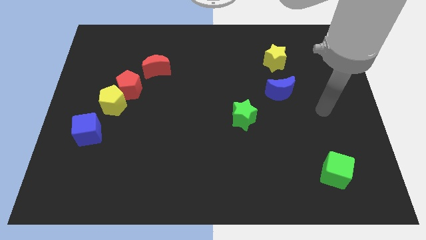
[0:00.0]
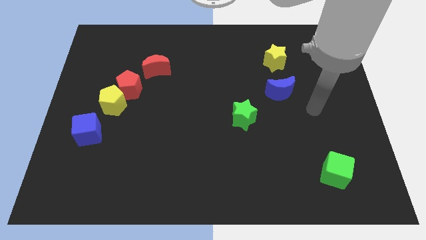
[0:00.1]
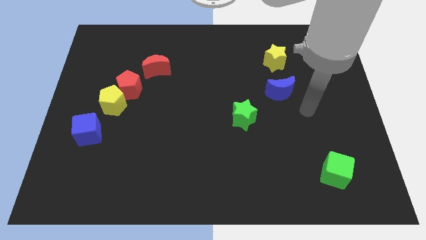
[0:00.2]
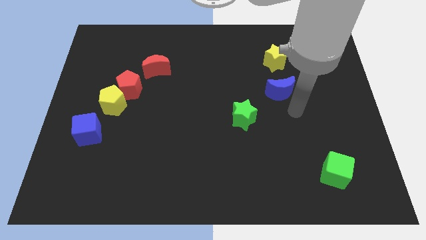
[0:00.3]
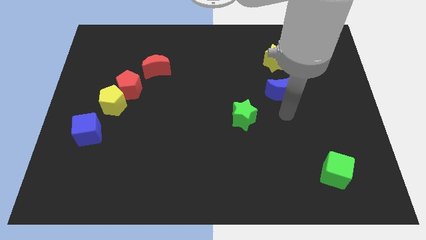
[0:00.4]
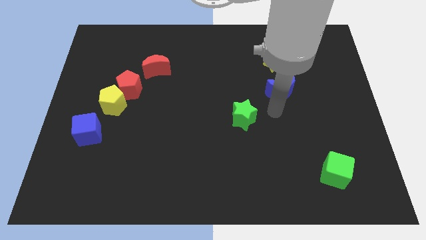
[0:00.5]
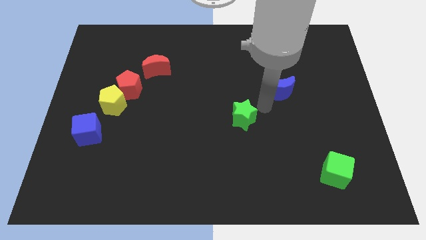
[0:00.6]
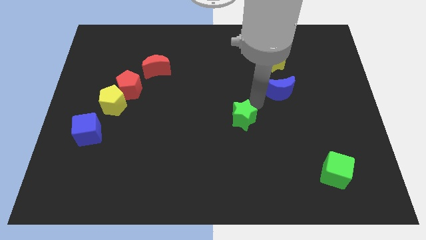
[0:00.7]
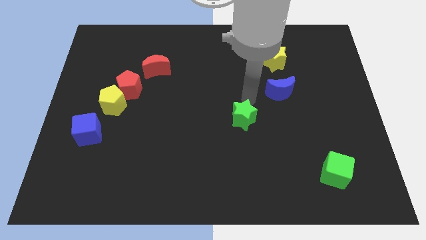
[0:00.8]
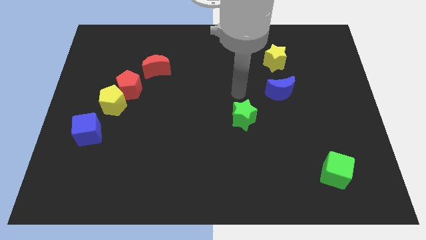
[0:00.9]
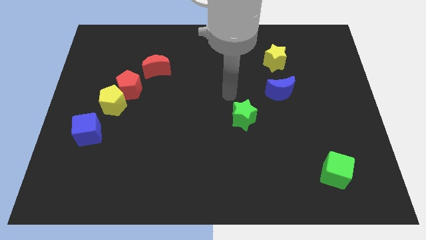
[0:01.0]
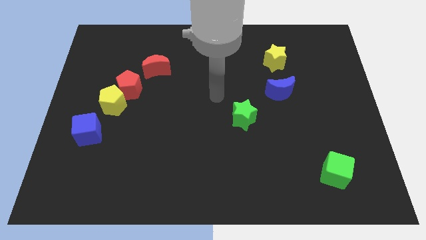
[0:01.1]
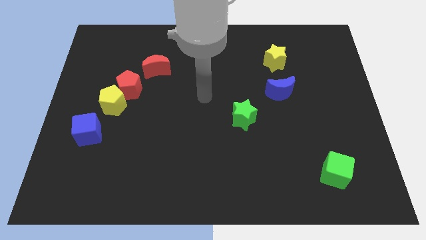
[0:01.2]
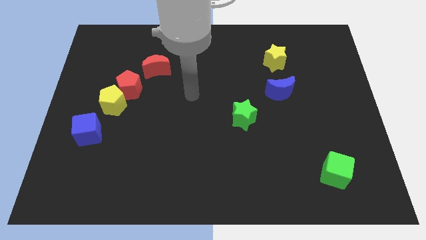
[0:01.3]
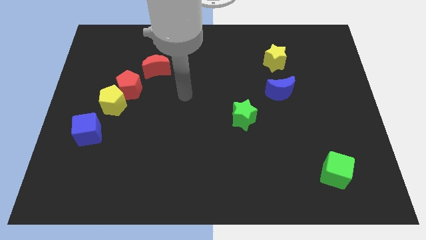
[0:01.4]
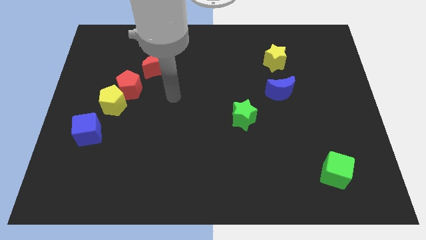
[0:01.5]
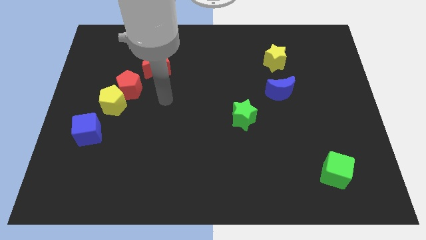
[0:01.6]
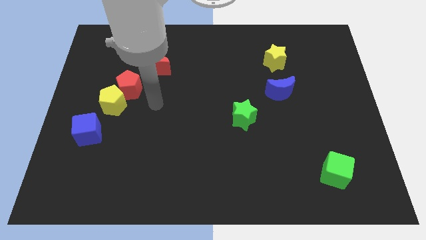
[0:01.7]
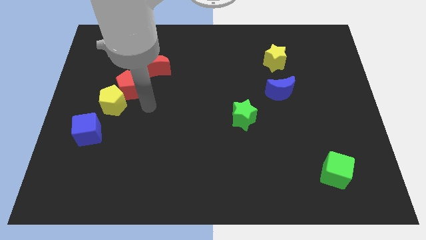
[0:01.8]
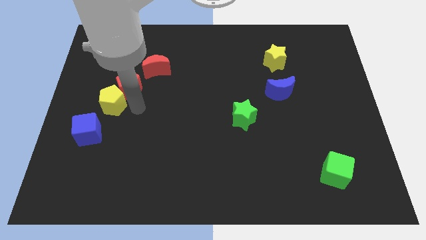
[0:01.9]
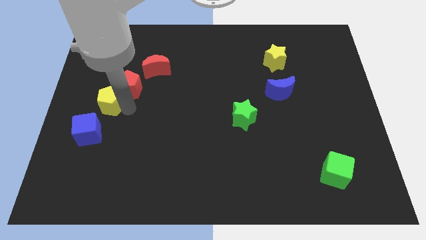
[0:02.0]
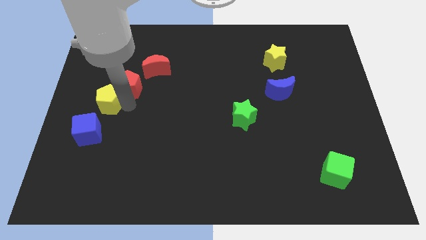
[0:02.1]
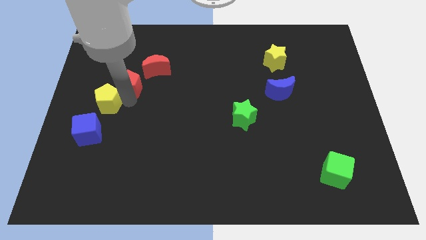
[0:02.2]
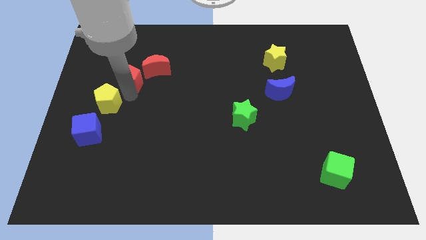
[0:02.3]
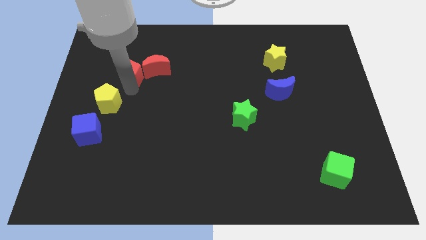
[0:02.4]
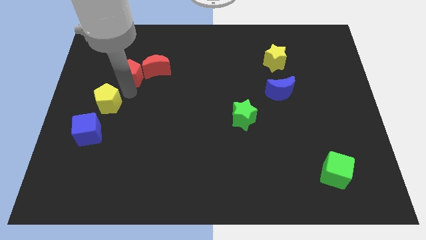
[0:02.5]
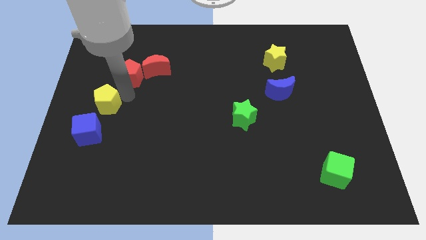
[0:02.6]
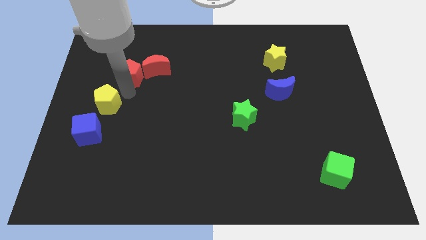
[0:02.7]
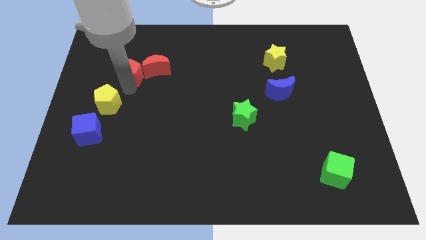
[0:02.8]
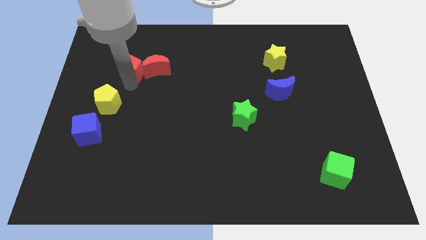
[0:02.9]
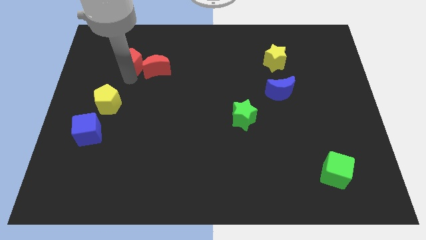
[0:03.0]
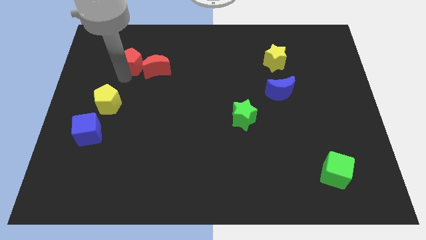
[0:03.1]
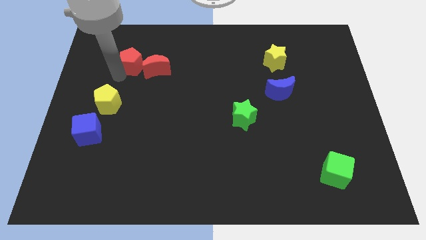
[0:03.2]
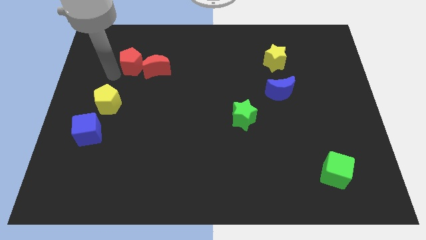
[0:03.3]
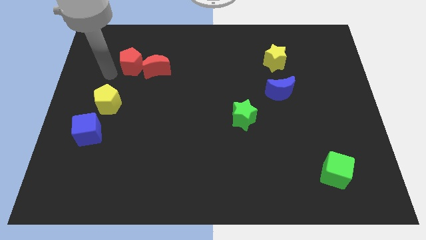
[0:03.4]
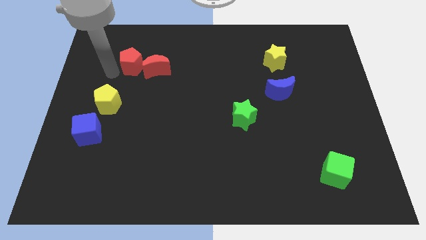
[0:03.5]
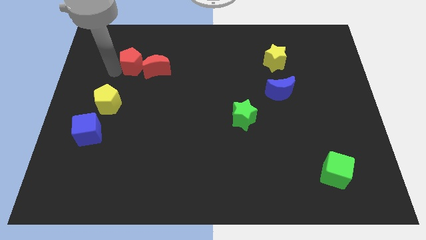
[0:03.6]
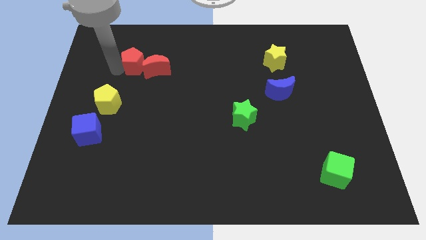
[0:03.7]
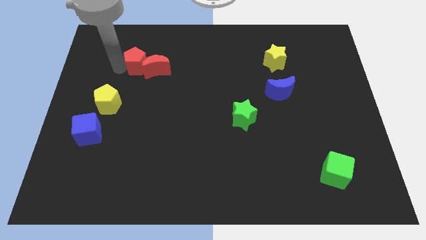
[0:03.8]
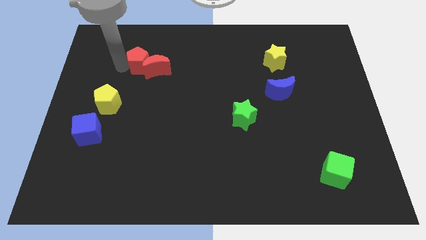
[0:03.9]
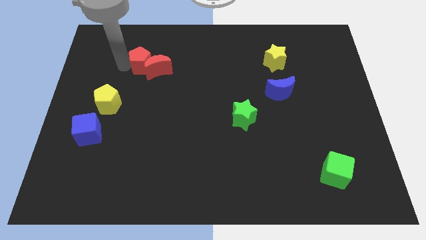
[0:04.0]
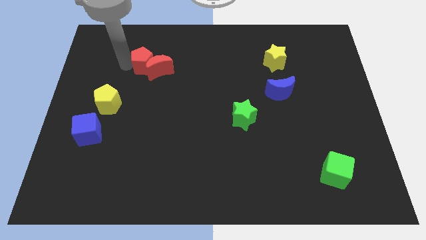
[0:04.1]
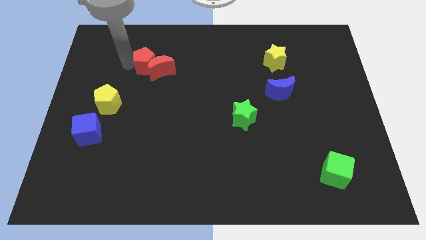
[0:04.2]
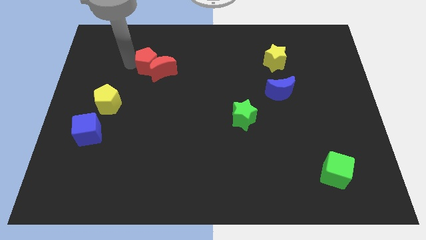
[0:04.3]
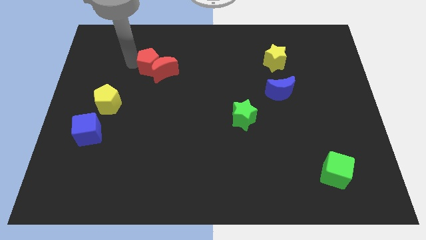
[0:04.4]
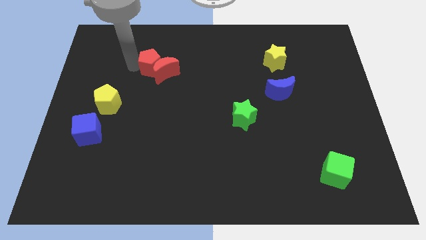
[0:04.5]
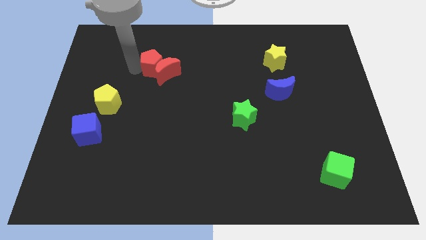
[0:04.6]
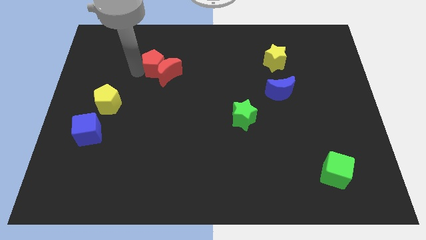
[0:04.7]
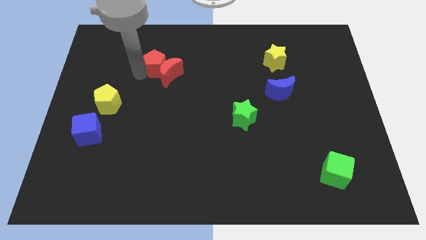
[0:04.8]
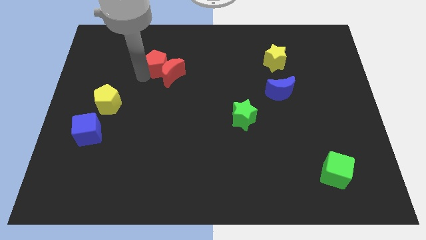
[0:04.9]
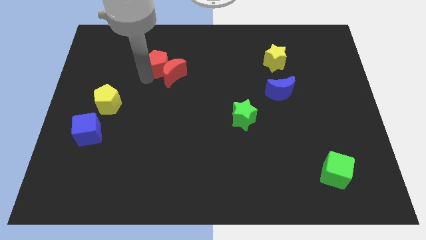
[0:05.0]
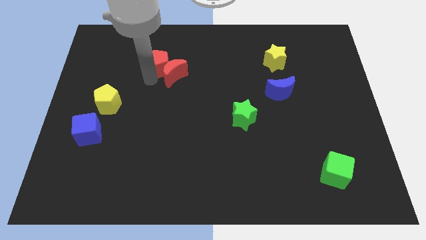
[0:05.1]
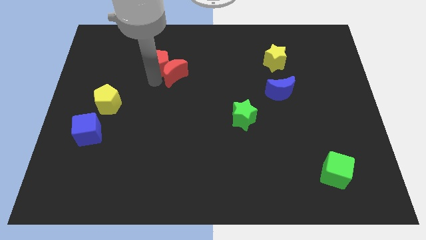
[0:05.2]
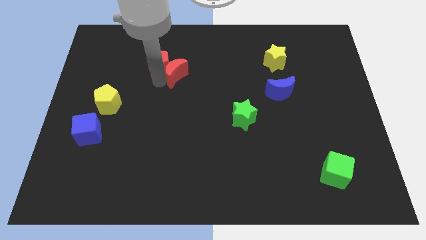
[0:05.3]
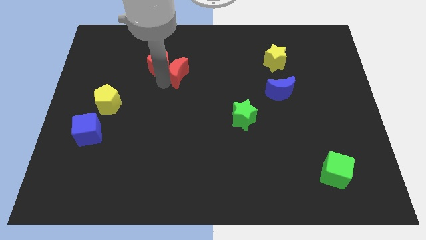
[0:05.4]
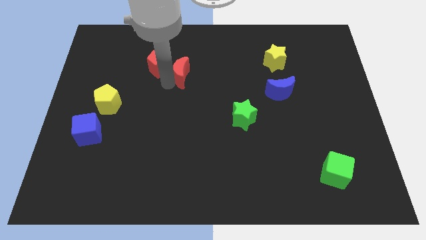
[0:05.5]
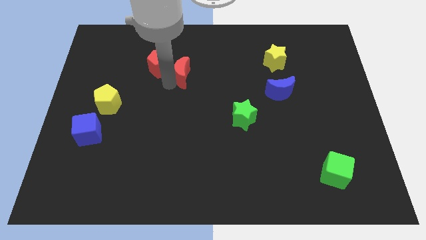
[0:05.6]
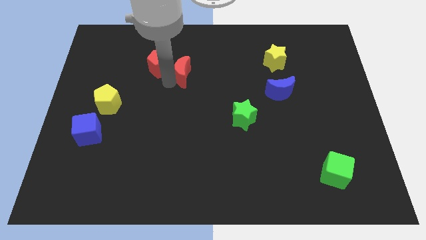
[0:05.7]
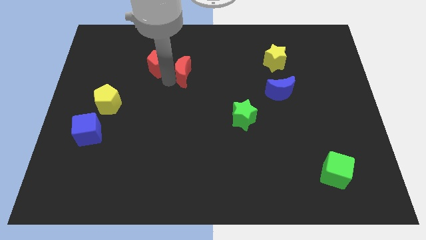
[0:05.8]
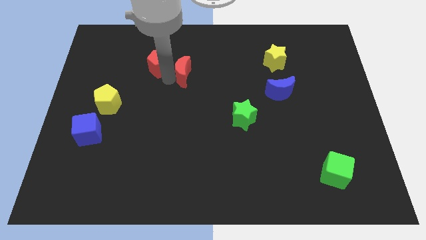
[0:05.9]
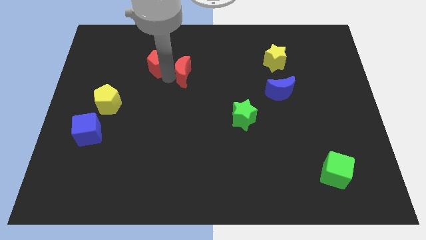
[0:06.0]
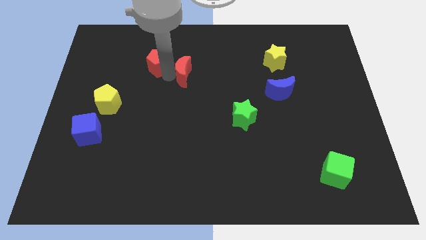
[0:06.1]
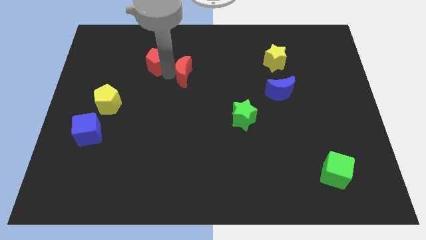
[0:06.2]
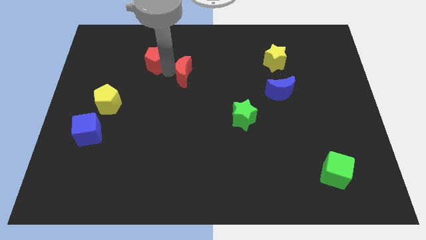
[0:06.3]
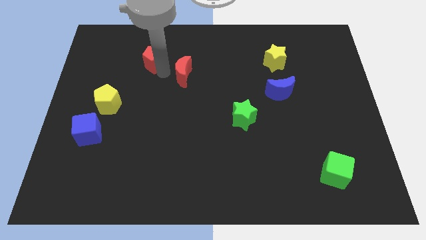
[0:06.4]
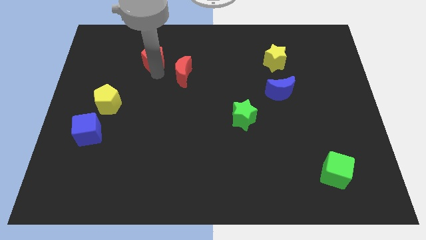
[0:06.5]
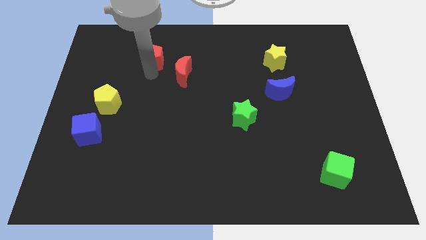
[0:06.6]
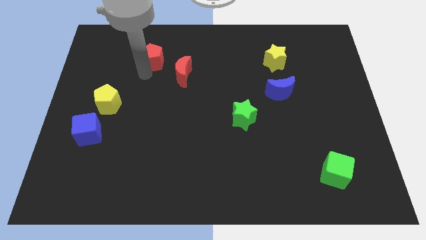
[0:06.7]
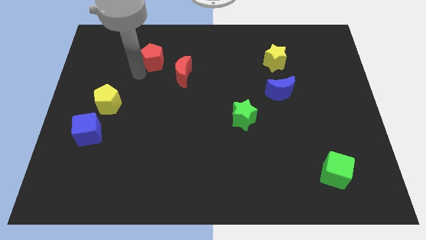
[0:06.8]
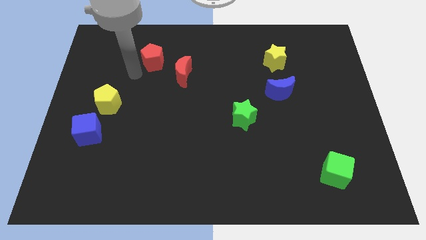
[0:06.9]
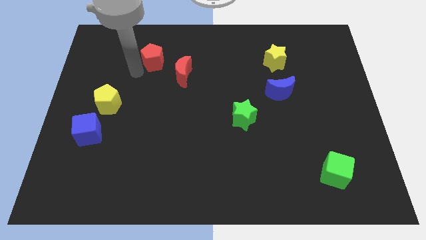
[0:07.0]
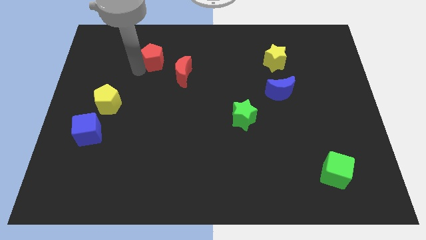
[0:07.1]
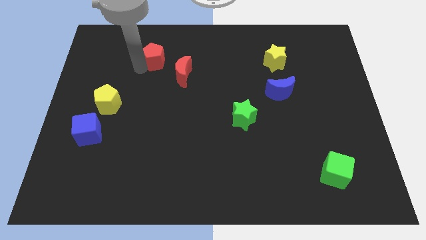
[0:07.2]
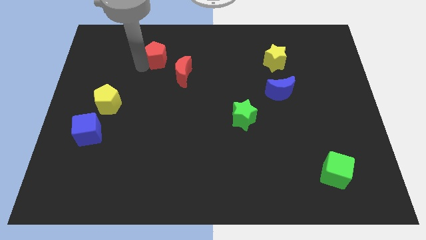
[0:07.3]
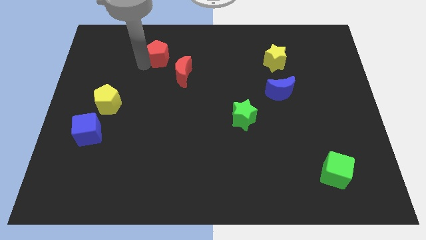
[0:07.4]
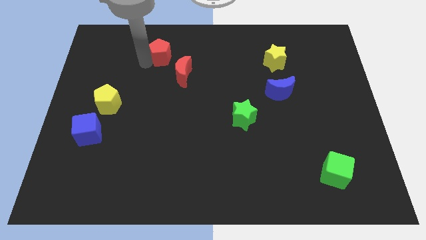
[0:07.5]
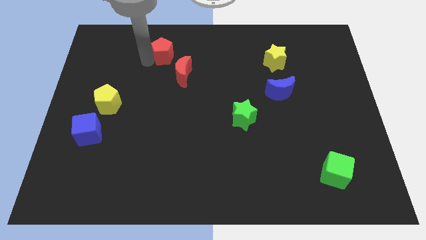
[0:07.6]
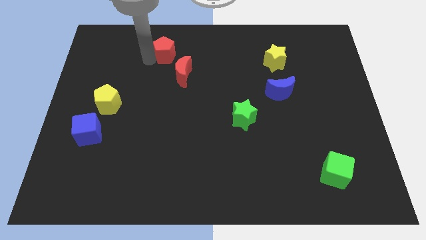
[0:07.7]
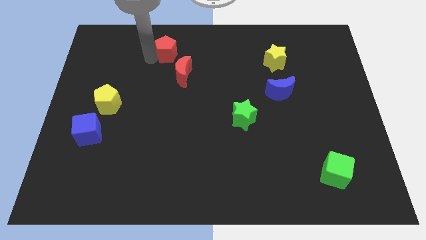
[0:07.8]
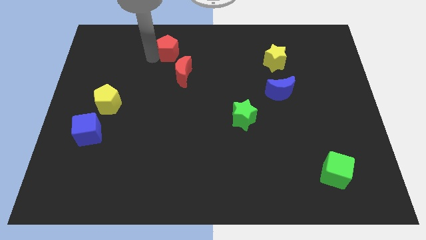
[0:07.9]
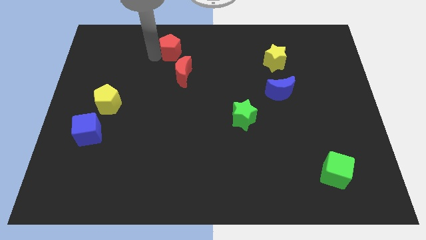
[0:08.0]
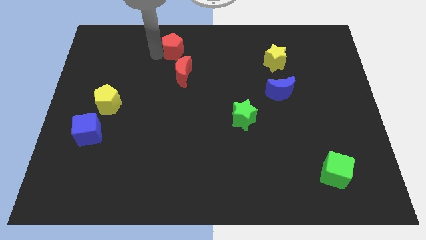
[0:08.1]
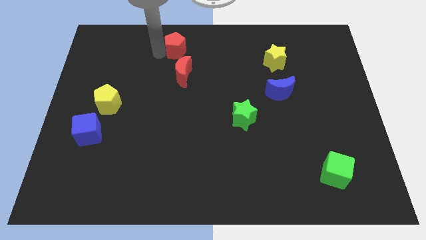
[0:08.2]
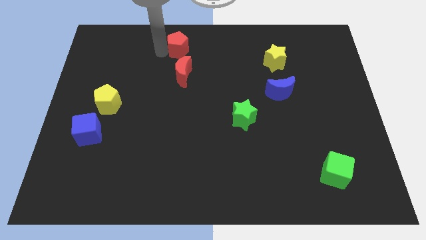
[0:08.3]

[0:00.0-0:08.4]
put the red pentagon to the towards your base
